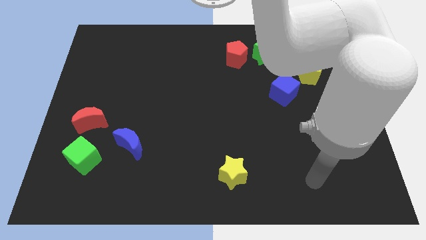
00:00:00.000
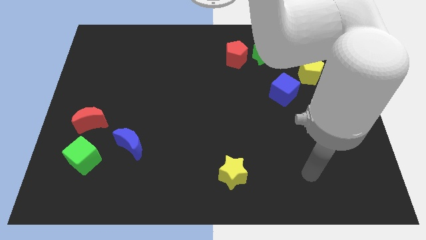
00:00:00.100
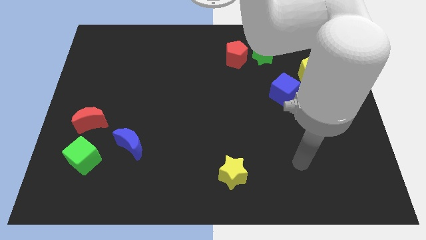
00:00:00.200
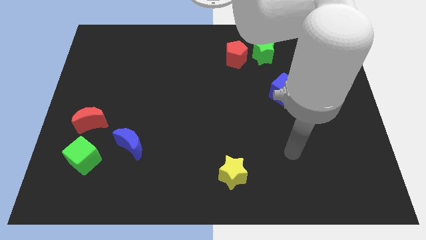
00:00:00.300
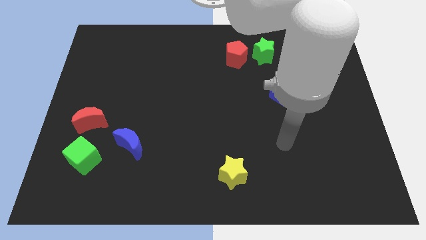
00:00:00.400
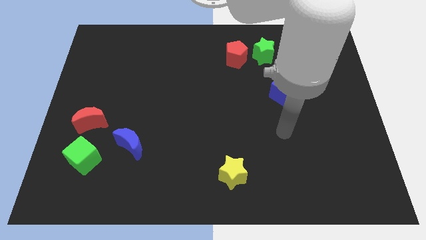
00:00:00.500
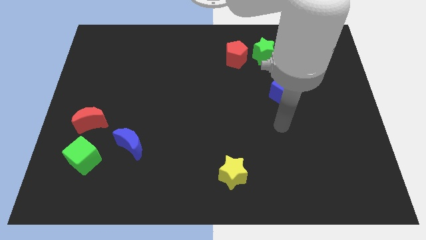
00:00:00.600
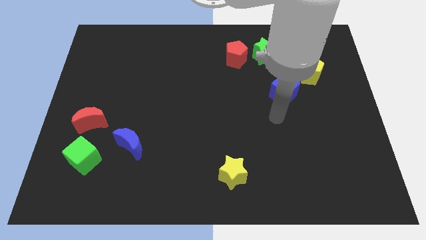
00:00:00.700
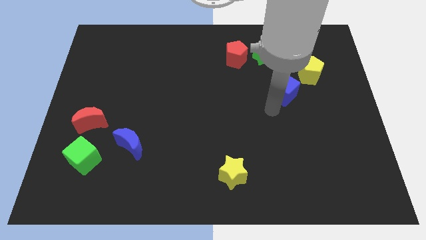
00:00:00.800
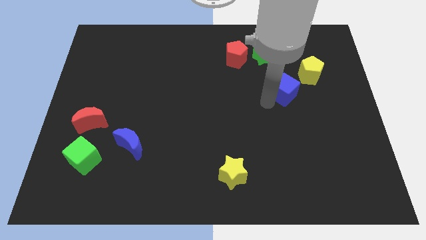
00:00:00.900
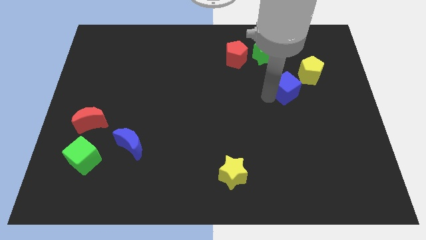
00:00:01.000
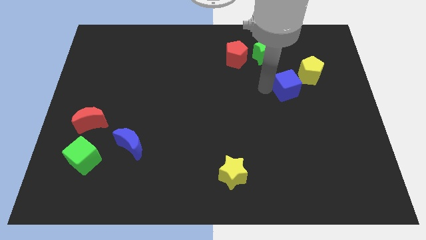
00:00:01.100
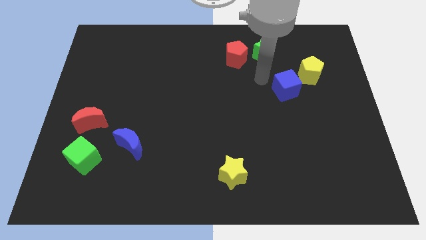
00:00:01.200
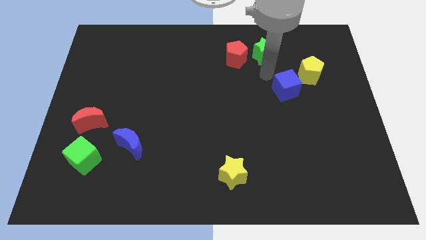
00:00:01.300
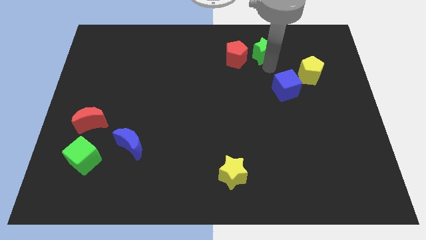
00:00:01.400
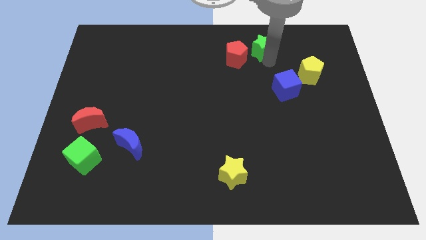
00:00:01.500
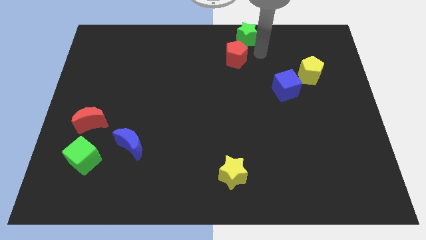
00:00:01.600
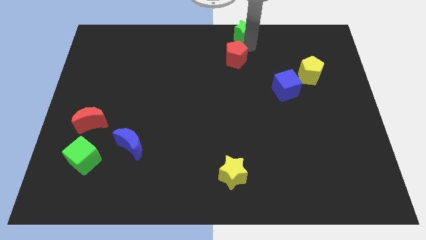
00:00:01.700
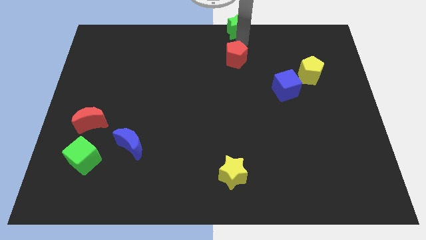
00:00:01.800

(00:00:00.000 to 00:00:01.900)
move the red pentagon away from the green star

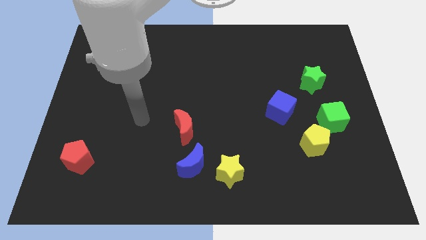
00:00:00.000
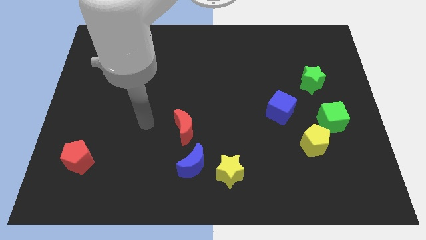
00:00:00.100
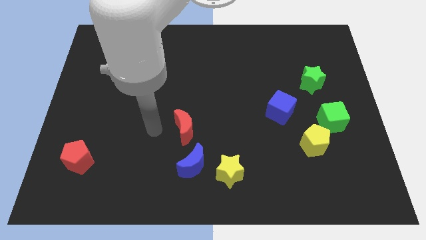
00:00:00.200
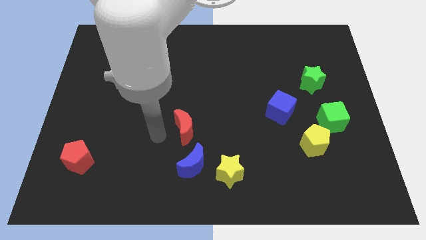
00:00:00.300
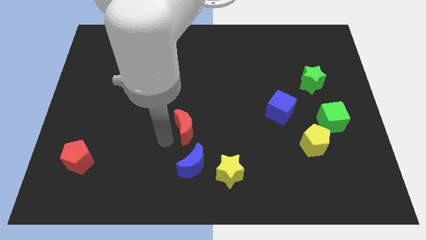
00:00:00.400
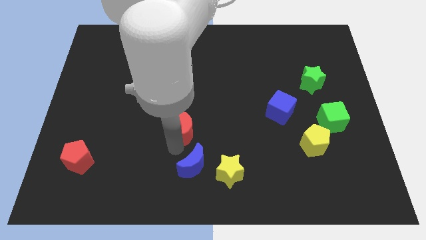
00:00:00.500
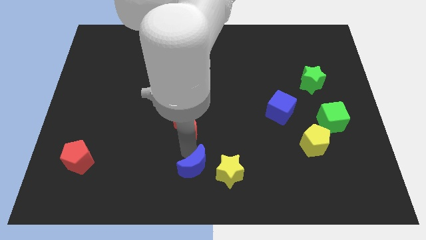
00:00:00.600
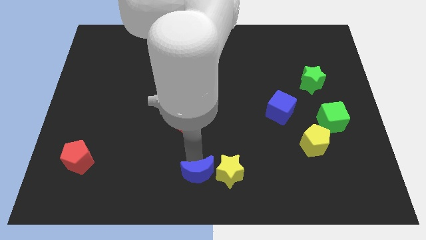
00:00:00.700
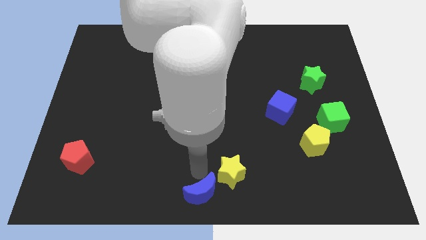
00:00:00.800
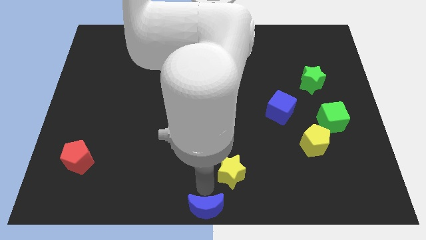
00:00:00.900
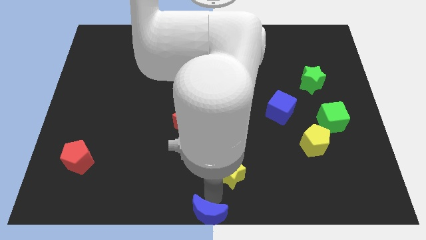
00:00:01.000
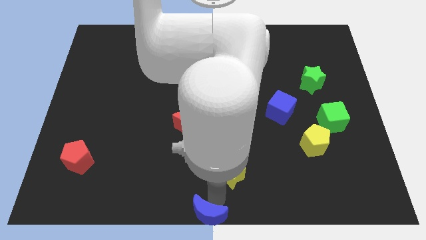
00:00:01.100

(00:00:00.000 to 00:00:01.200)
separate the yellow star from the blue moon

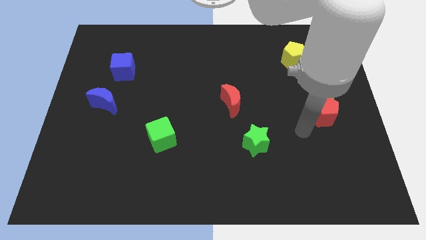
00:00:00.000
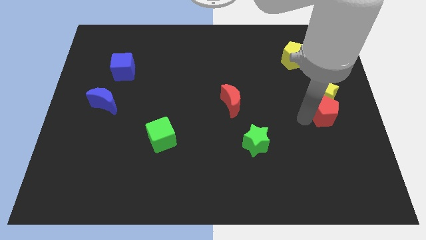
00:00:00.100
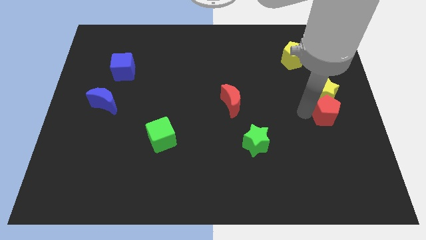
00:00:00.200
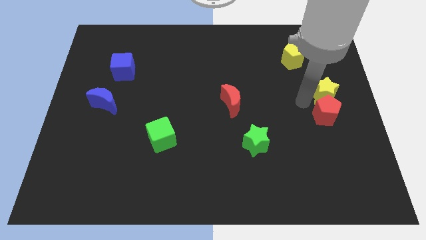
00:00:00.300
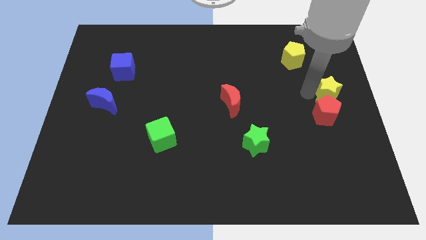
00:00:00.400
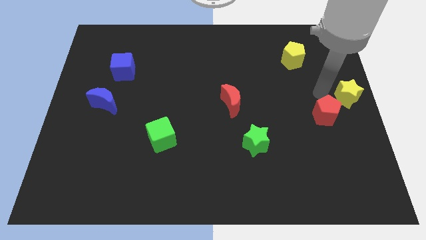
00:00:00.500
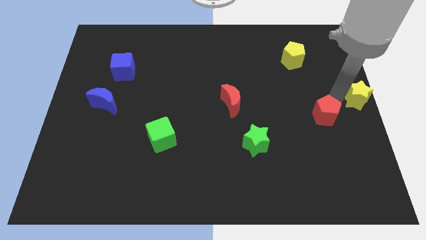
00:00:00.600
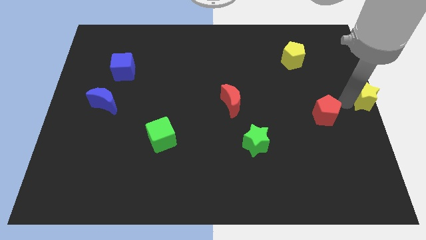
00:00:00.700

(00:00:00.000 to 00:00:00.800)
pull the red pentagon apart from the yellow star

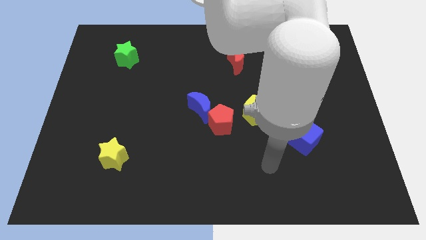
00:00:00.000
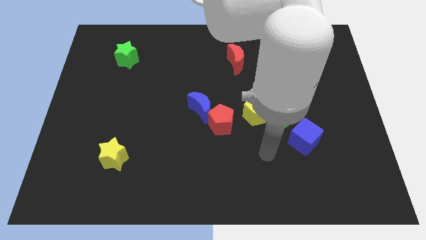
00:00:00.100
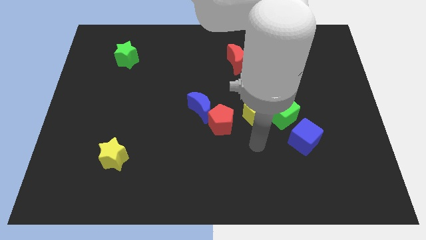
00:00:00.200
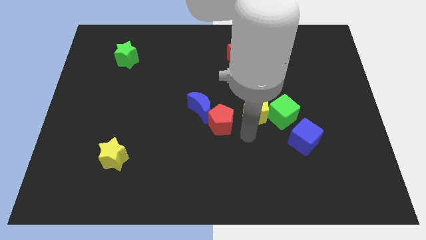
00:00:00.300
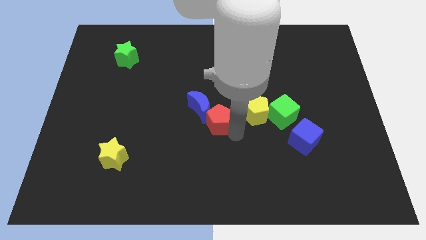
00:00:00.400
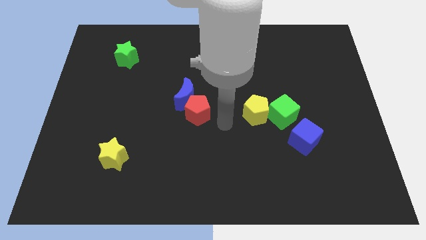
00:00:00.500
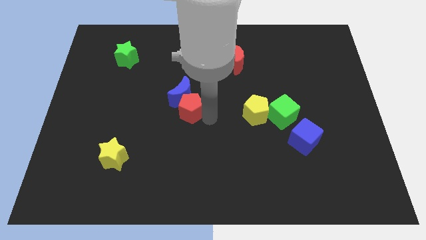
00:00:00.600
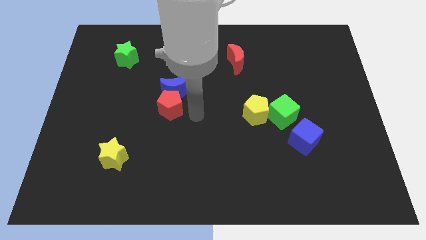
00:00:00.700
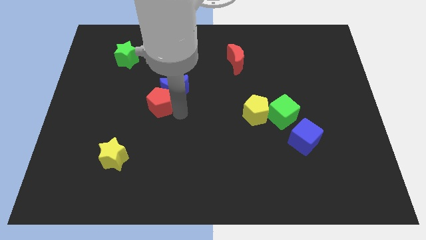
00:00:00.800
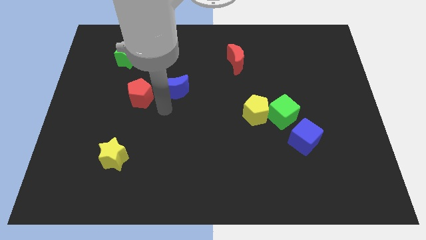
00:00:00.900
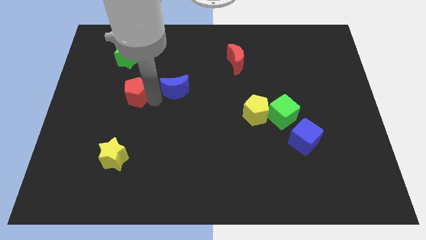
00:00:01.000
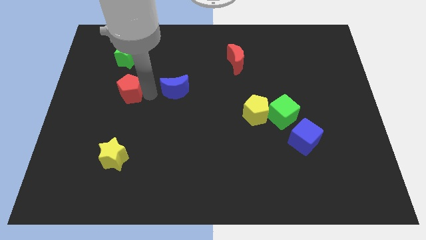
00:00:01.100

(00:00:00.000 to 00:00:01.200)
separate the blue moon from the red pentagon

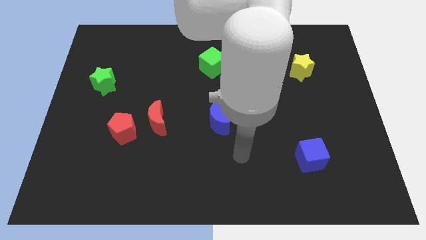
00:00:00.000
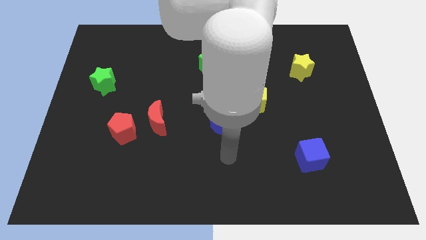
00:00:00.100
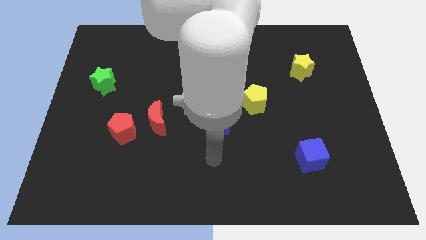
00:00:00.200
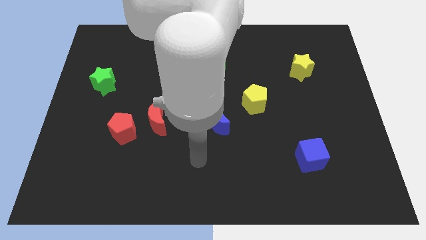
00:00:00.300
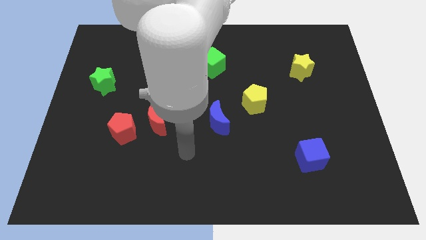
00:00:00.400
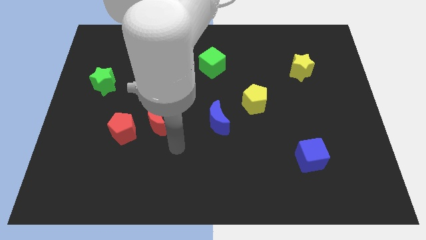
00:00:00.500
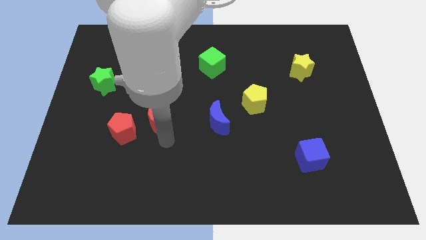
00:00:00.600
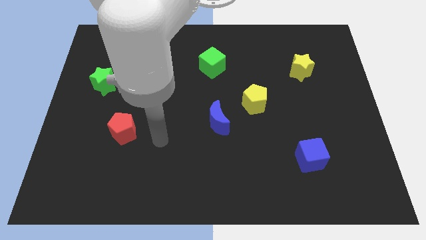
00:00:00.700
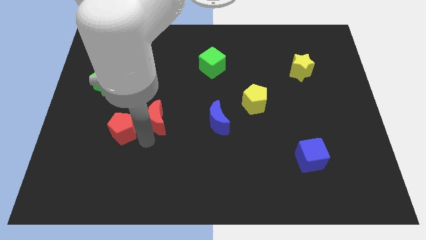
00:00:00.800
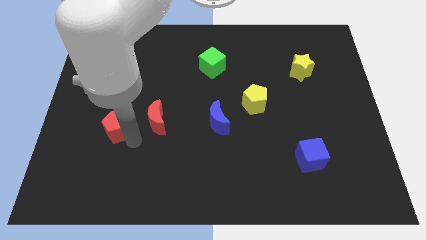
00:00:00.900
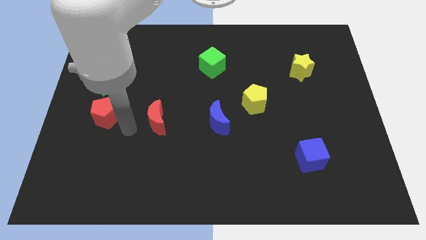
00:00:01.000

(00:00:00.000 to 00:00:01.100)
separate the red moon from the red pentagon

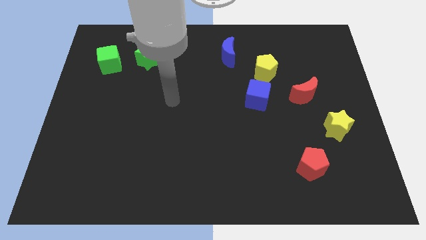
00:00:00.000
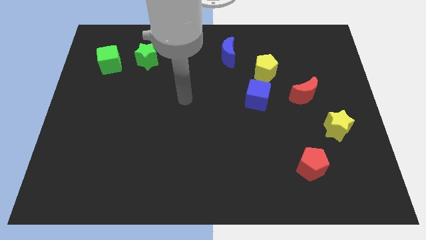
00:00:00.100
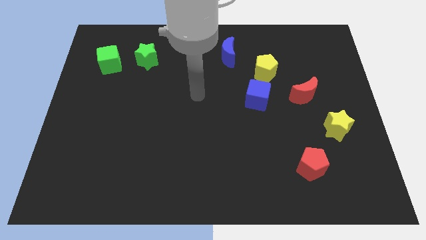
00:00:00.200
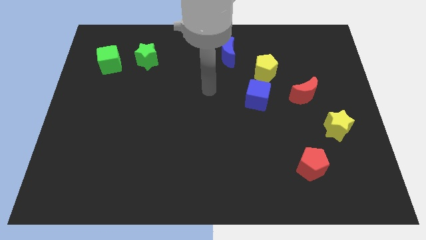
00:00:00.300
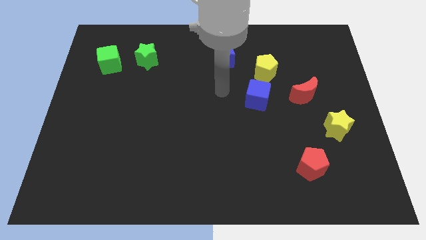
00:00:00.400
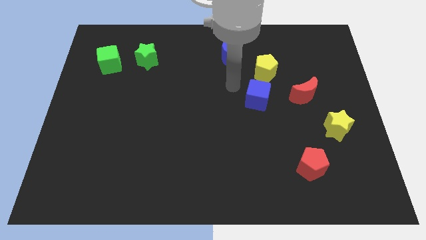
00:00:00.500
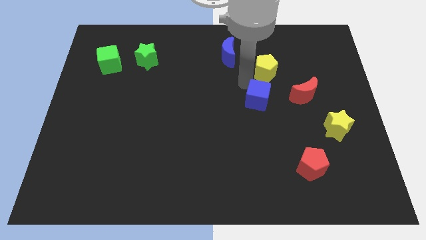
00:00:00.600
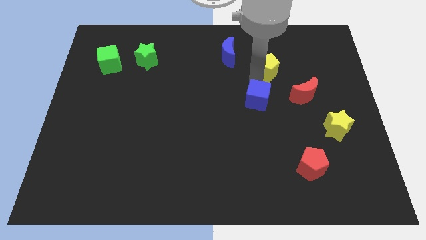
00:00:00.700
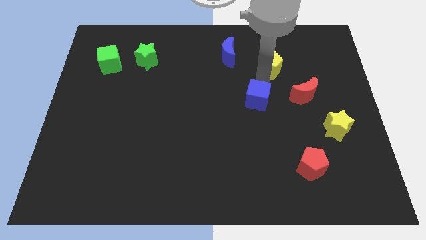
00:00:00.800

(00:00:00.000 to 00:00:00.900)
separate the blue cube from the yellow pentagon

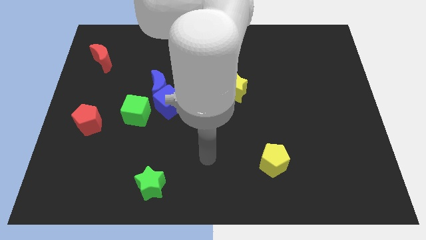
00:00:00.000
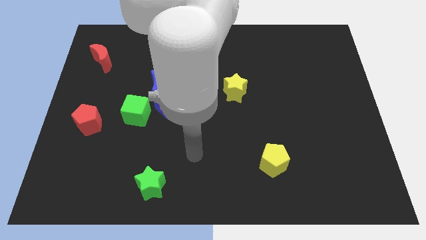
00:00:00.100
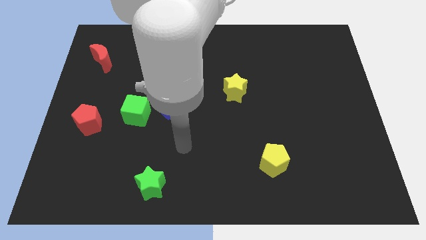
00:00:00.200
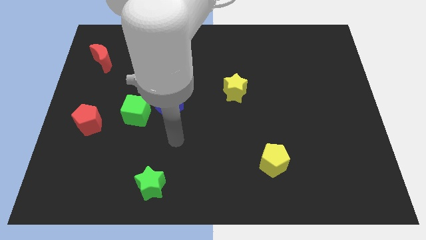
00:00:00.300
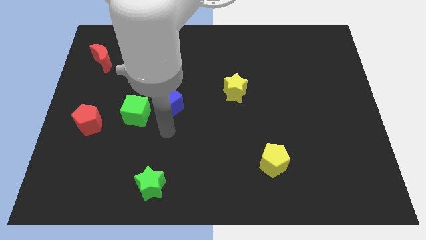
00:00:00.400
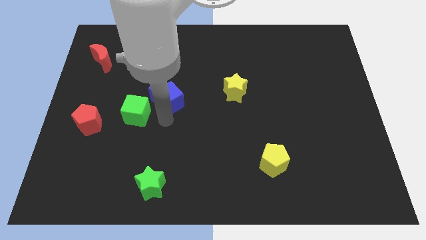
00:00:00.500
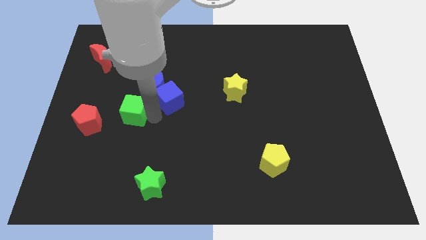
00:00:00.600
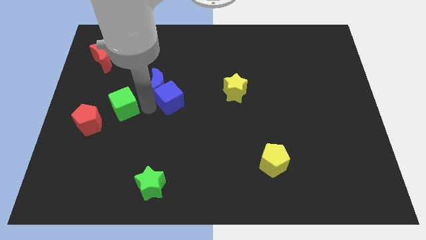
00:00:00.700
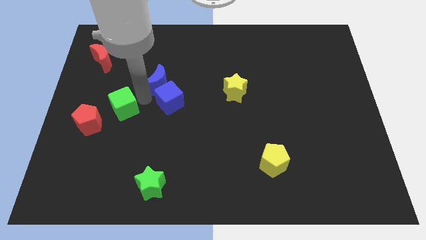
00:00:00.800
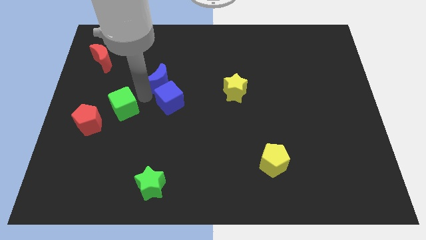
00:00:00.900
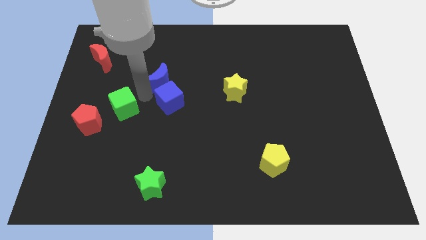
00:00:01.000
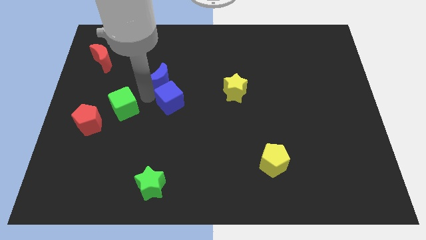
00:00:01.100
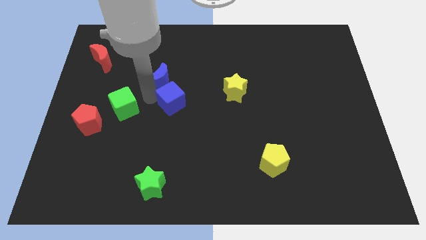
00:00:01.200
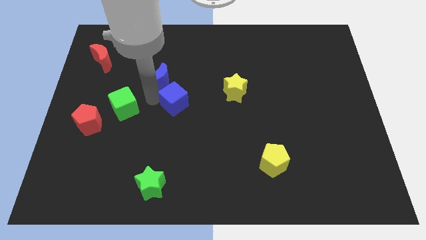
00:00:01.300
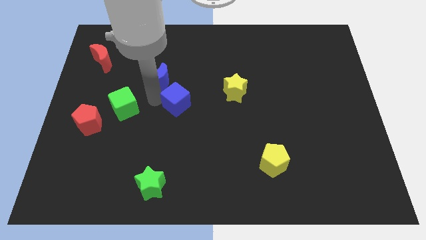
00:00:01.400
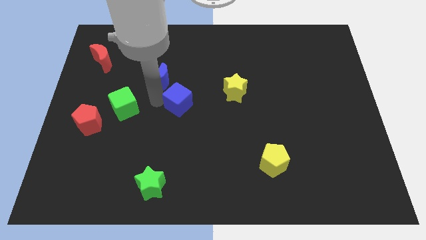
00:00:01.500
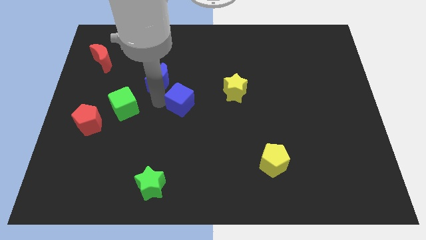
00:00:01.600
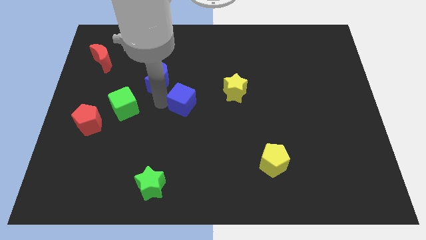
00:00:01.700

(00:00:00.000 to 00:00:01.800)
move the blue cube away from the blue moon and green cube

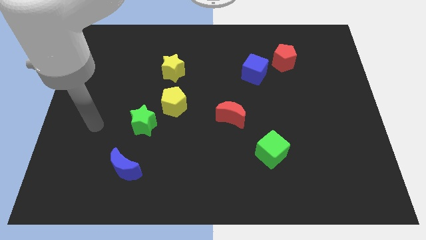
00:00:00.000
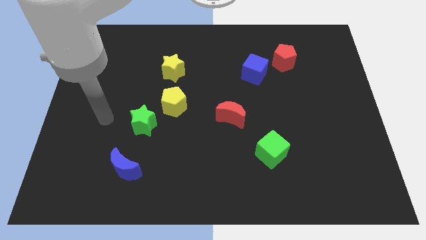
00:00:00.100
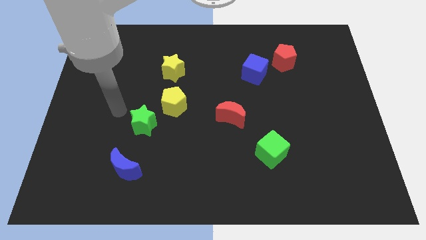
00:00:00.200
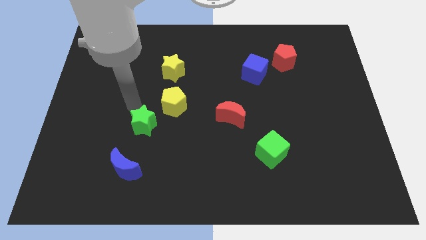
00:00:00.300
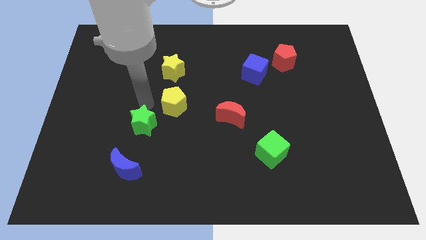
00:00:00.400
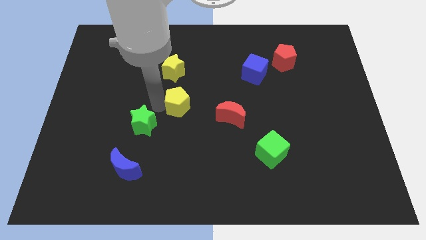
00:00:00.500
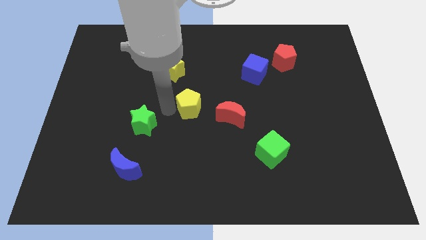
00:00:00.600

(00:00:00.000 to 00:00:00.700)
separate the green star from the yellow pentagon
